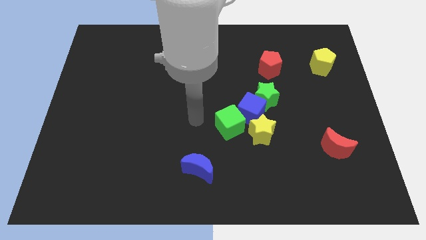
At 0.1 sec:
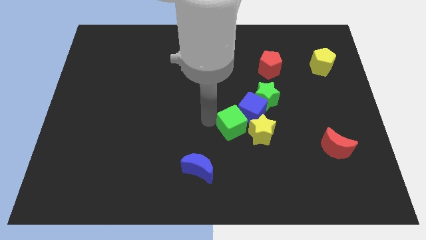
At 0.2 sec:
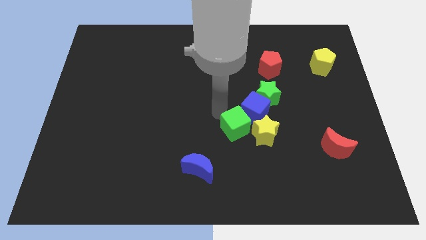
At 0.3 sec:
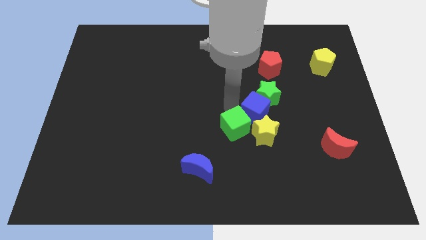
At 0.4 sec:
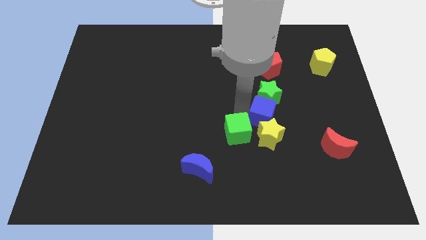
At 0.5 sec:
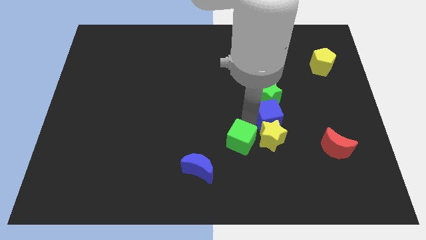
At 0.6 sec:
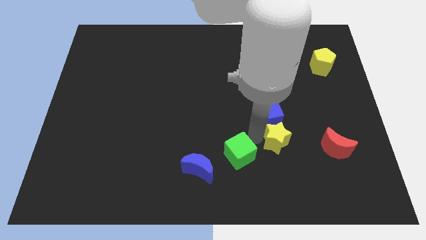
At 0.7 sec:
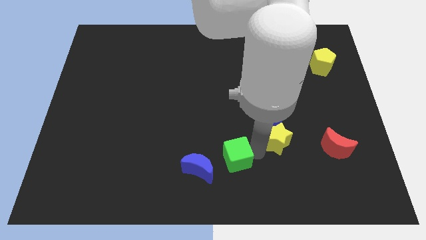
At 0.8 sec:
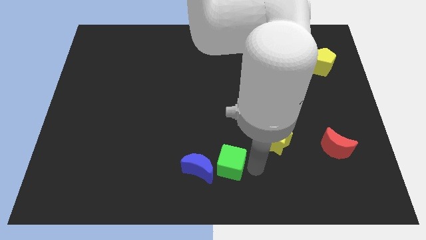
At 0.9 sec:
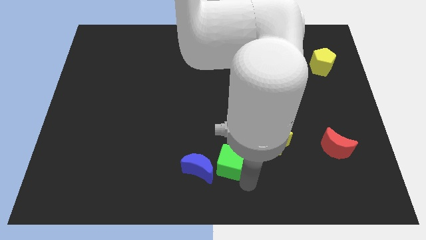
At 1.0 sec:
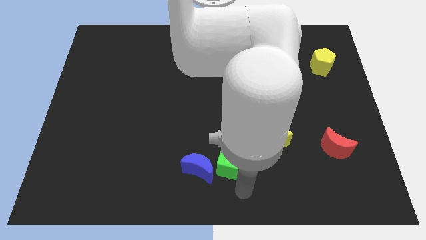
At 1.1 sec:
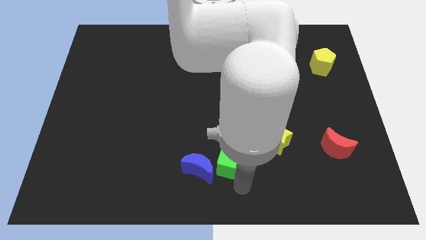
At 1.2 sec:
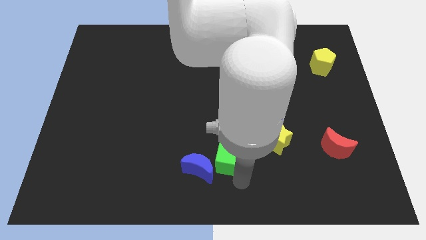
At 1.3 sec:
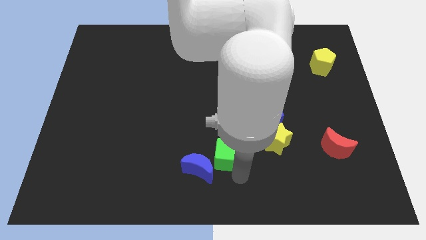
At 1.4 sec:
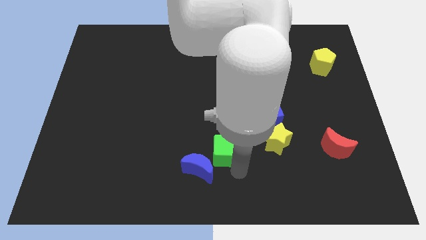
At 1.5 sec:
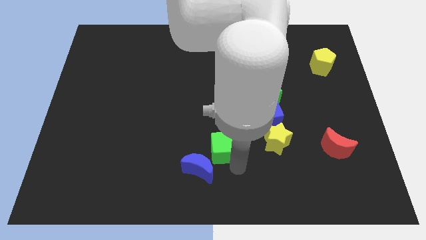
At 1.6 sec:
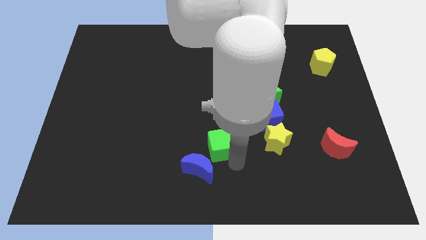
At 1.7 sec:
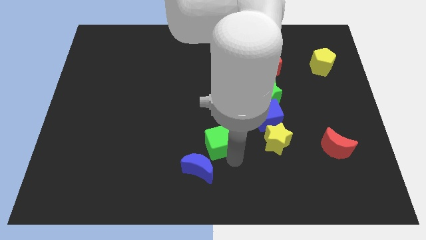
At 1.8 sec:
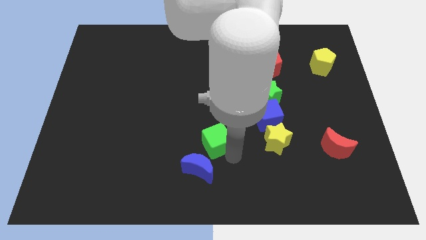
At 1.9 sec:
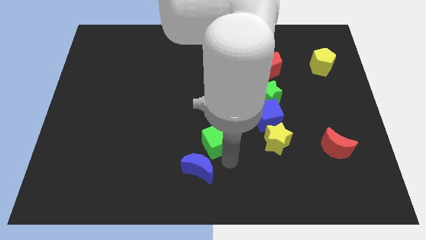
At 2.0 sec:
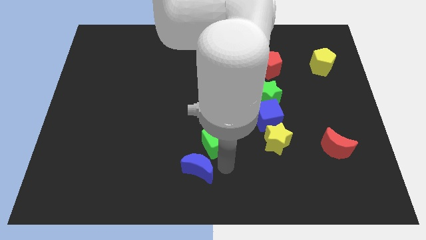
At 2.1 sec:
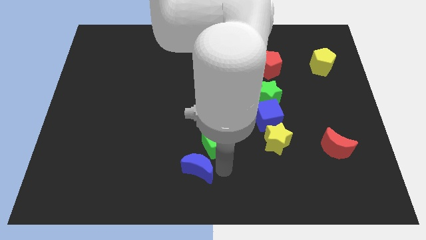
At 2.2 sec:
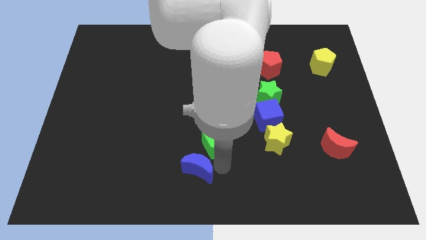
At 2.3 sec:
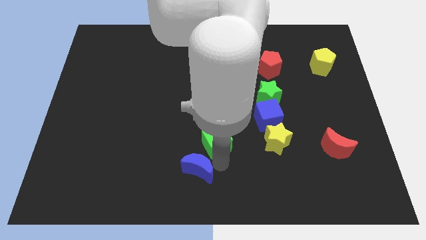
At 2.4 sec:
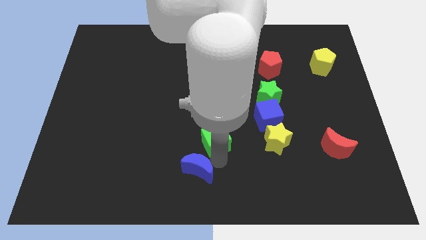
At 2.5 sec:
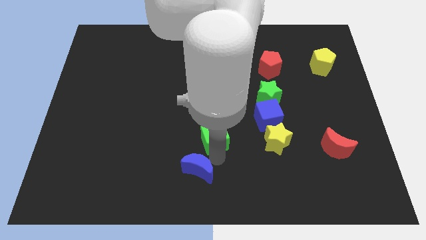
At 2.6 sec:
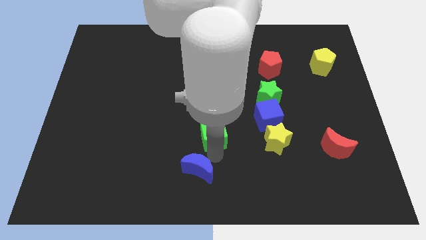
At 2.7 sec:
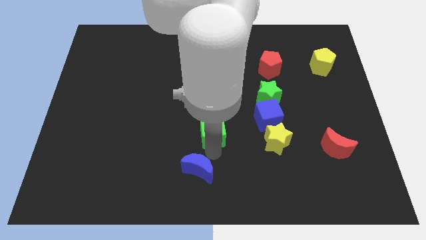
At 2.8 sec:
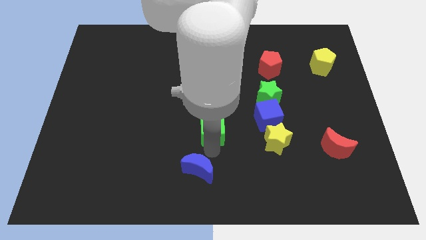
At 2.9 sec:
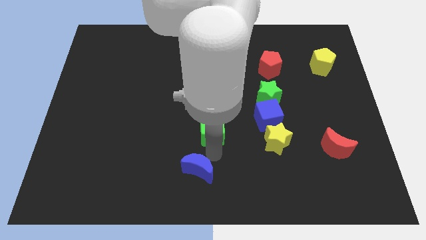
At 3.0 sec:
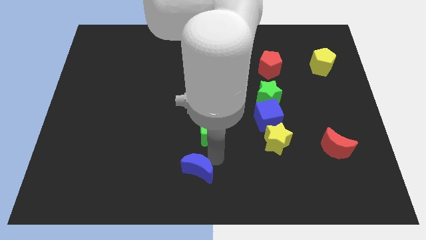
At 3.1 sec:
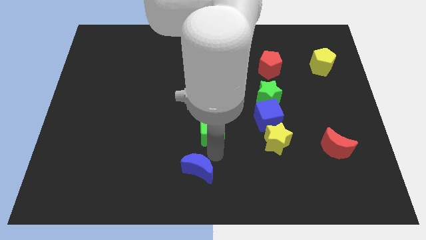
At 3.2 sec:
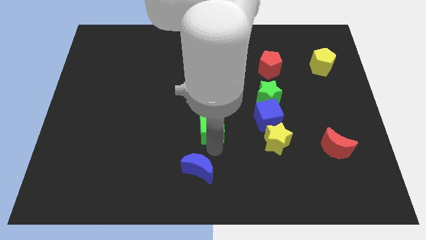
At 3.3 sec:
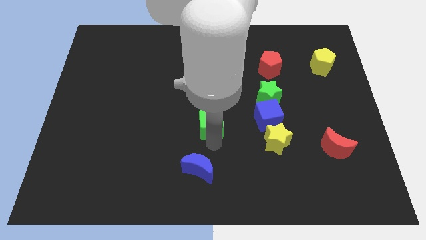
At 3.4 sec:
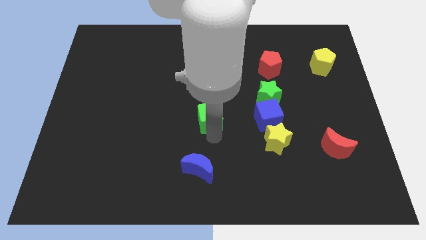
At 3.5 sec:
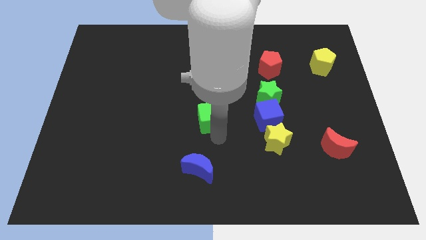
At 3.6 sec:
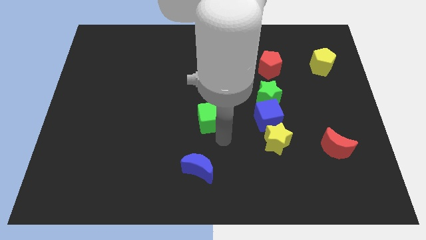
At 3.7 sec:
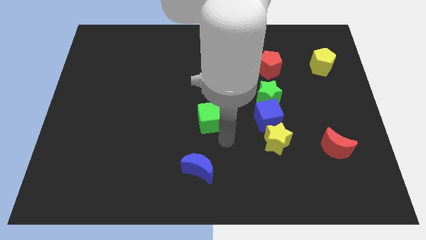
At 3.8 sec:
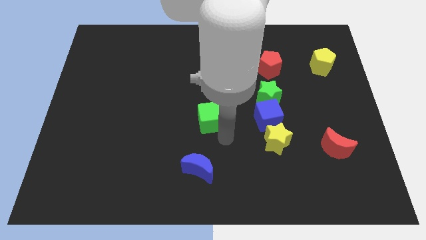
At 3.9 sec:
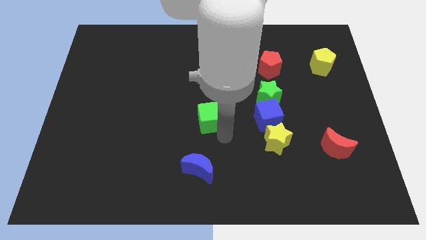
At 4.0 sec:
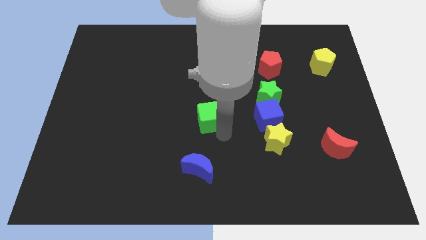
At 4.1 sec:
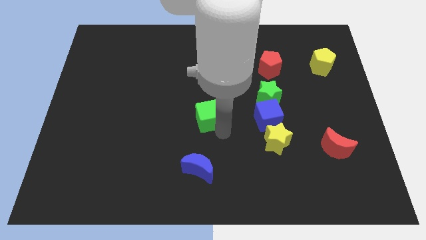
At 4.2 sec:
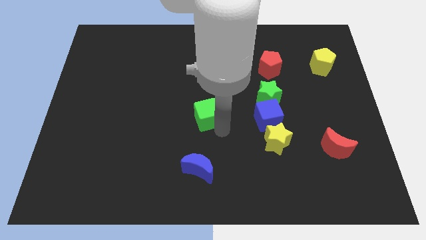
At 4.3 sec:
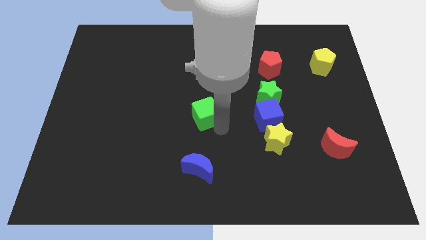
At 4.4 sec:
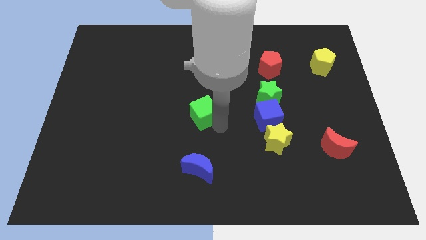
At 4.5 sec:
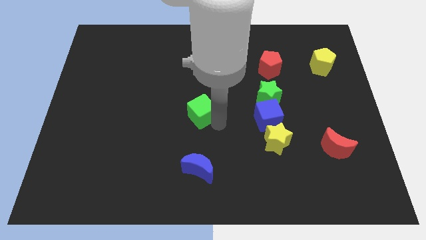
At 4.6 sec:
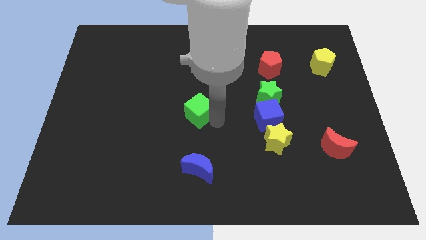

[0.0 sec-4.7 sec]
push the green cube diagonally upwards and to the left a little

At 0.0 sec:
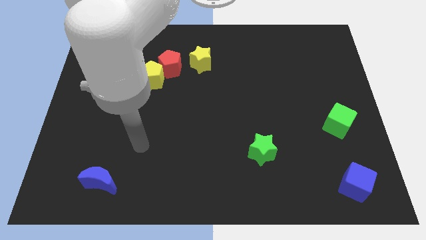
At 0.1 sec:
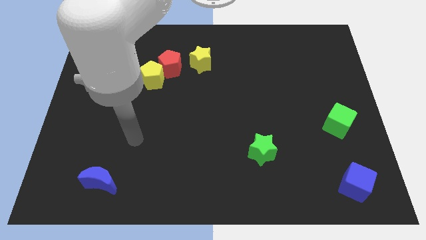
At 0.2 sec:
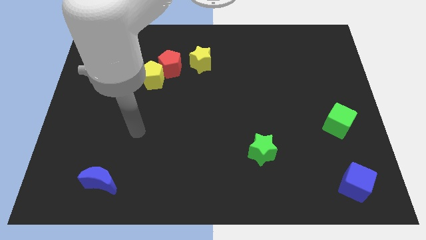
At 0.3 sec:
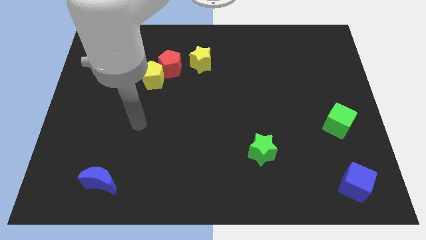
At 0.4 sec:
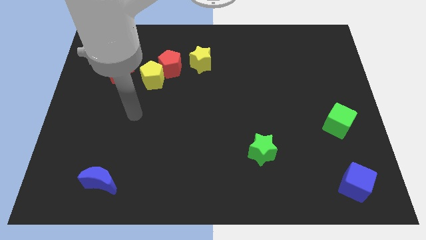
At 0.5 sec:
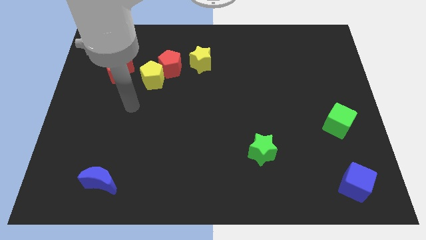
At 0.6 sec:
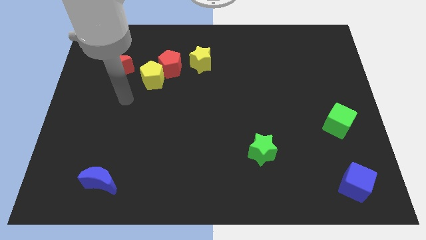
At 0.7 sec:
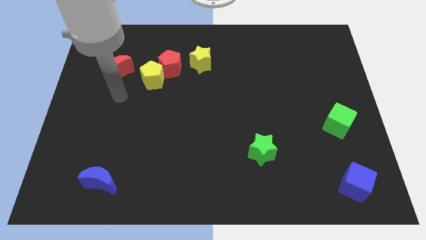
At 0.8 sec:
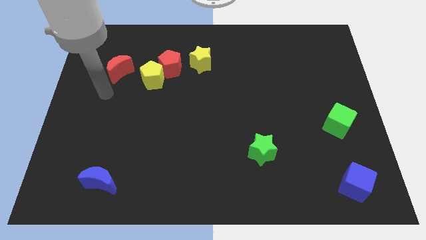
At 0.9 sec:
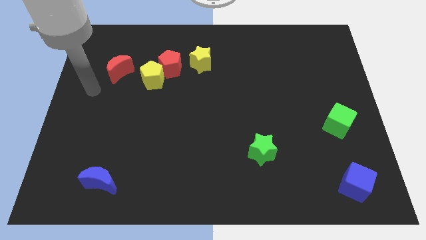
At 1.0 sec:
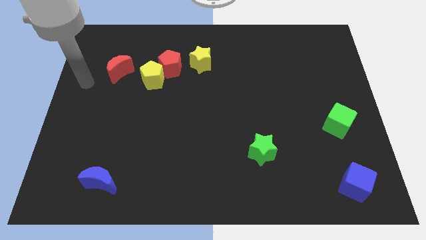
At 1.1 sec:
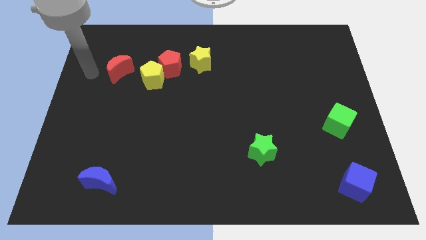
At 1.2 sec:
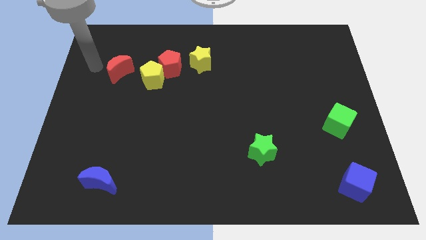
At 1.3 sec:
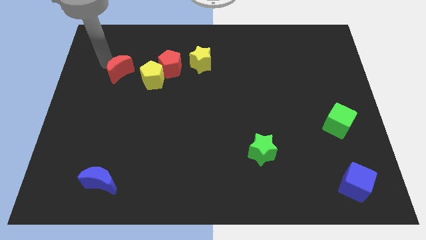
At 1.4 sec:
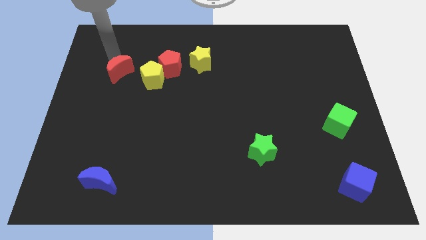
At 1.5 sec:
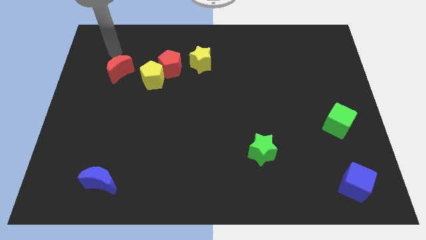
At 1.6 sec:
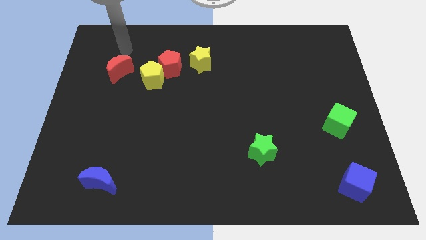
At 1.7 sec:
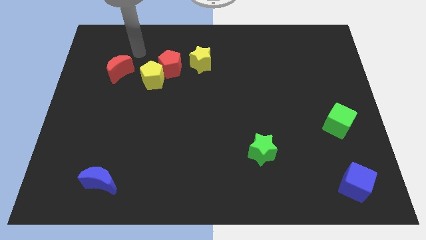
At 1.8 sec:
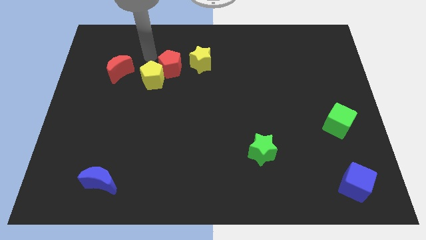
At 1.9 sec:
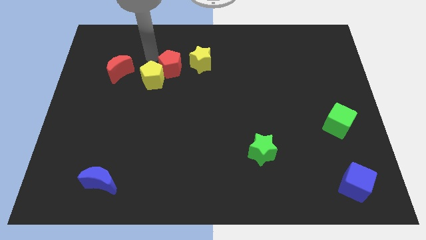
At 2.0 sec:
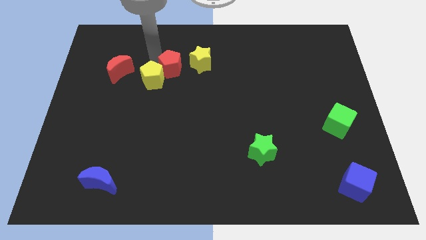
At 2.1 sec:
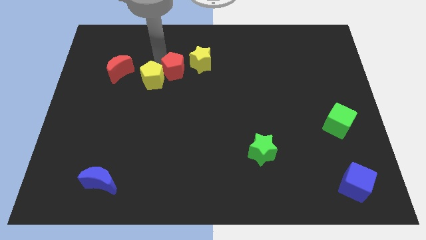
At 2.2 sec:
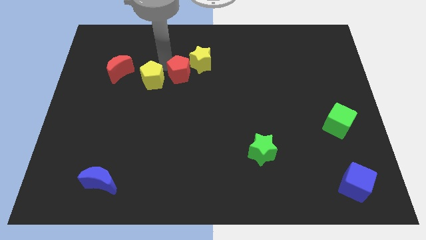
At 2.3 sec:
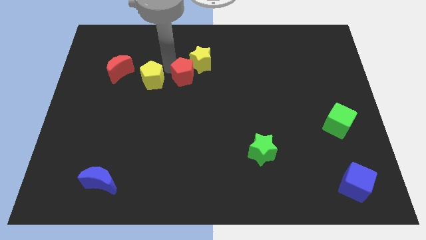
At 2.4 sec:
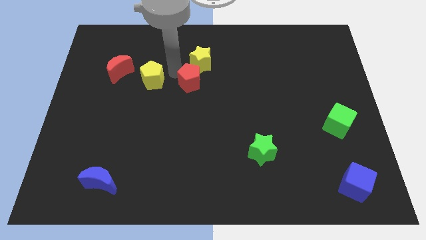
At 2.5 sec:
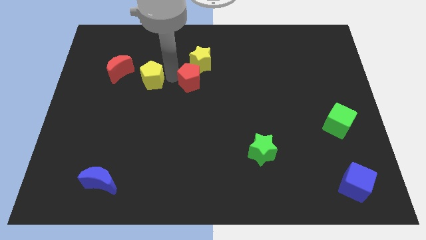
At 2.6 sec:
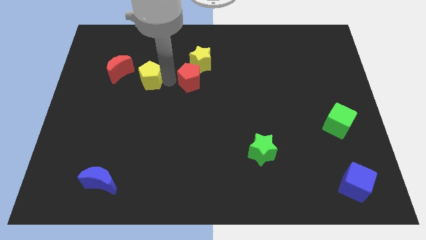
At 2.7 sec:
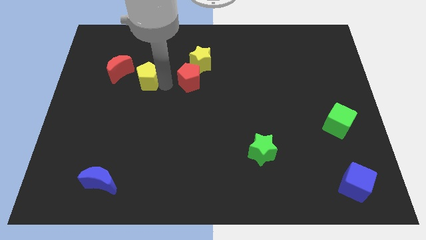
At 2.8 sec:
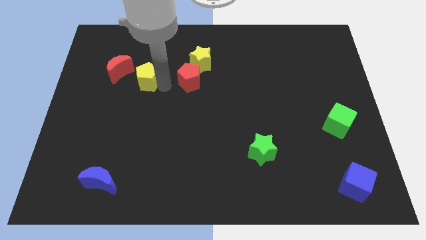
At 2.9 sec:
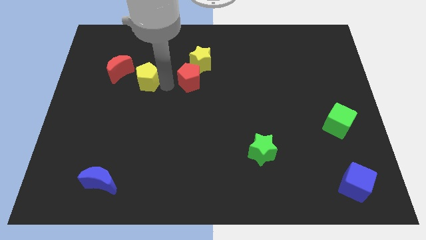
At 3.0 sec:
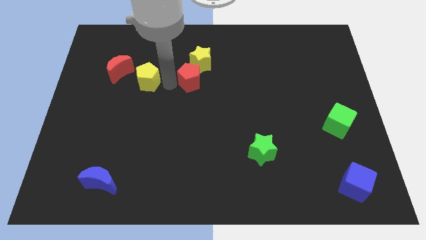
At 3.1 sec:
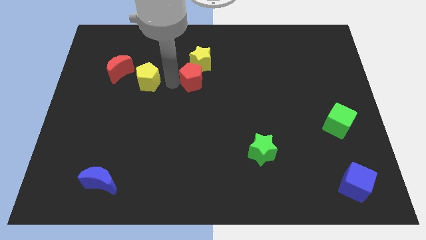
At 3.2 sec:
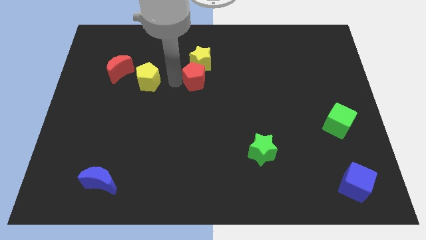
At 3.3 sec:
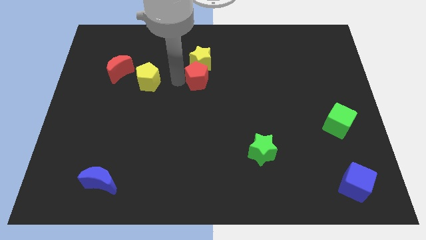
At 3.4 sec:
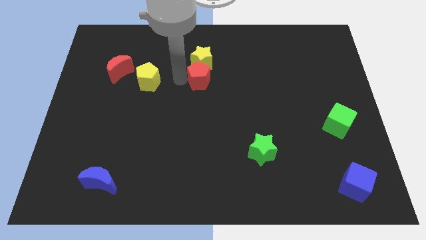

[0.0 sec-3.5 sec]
push the red pentagon somewhat right
